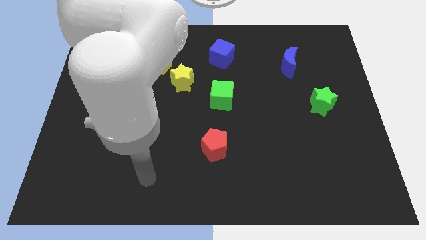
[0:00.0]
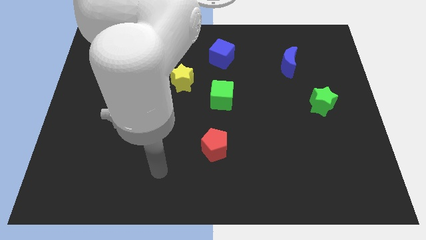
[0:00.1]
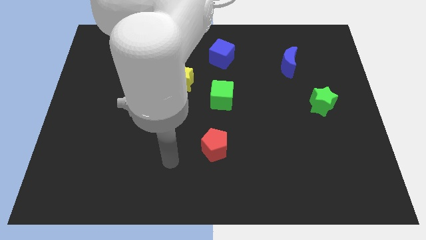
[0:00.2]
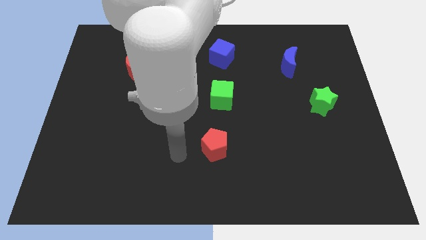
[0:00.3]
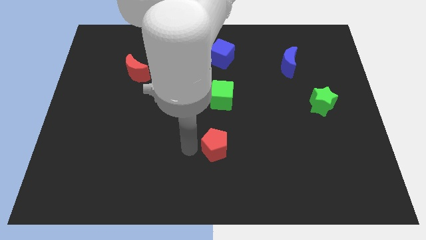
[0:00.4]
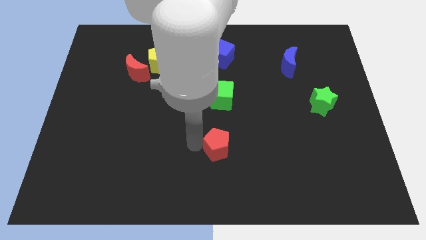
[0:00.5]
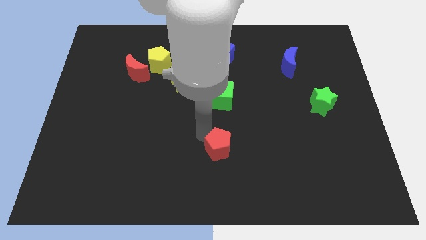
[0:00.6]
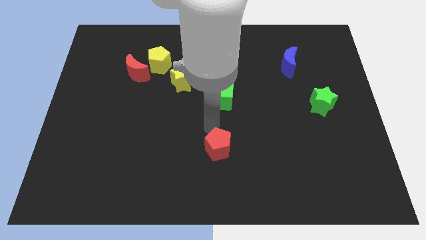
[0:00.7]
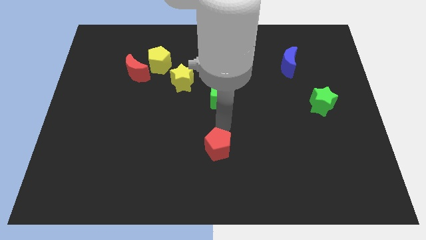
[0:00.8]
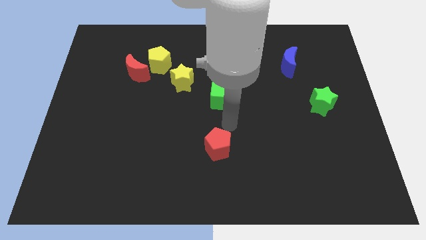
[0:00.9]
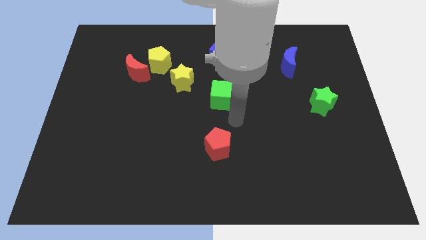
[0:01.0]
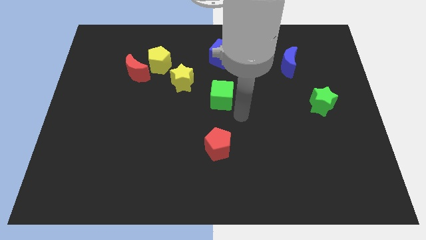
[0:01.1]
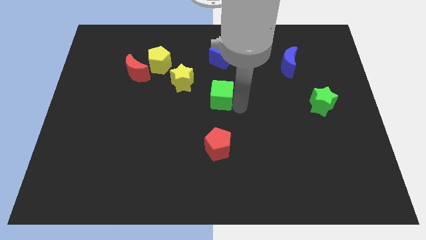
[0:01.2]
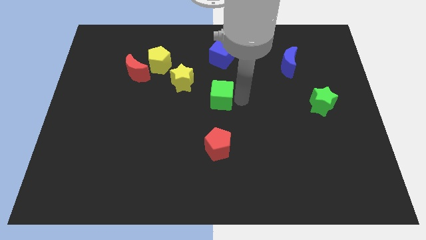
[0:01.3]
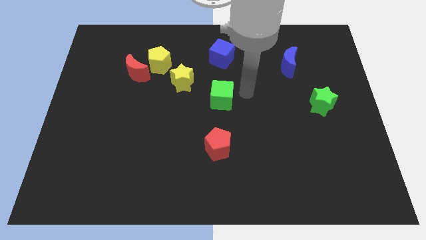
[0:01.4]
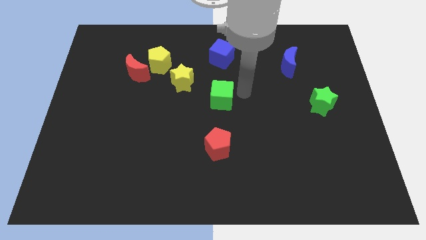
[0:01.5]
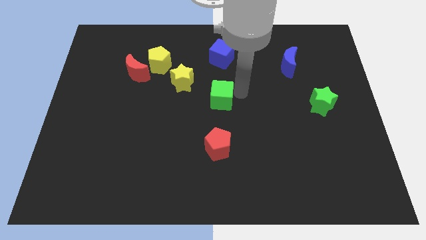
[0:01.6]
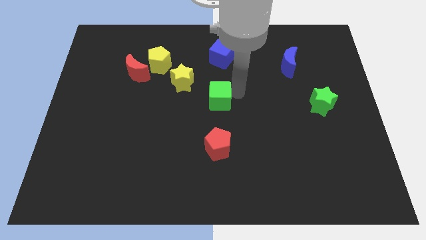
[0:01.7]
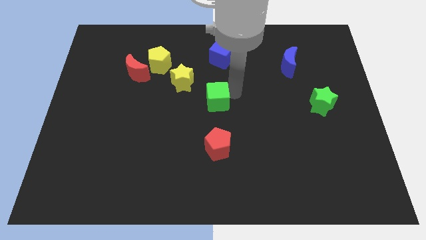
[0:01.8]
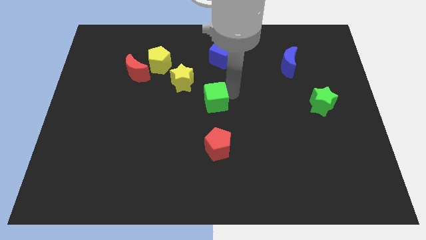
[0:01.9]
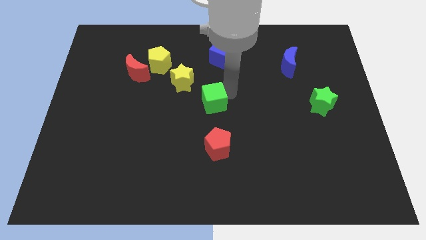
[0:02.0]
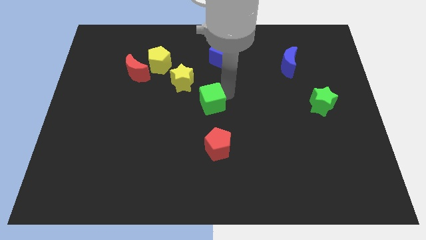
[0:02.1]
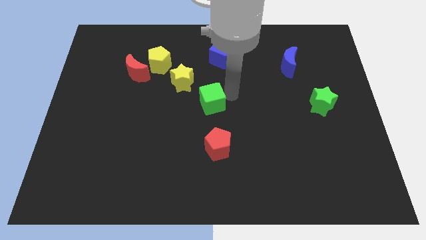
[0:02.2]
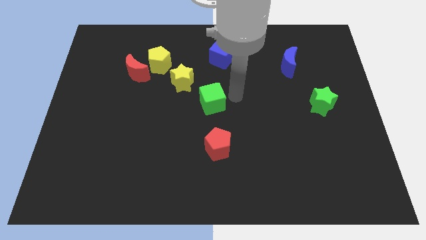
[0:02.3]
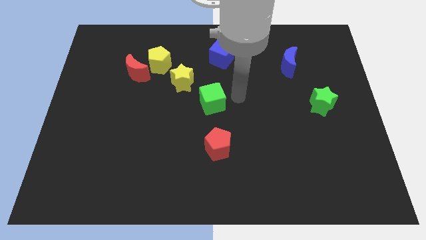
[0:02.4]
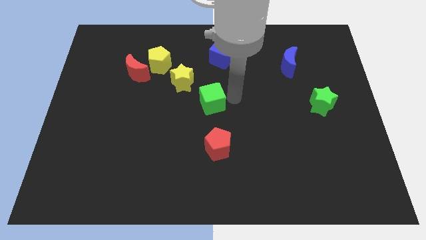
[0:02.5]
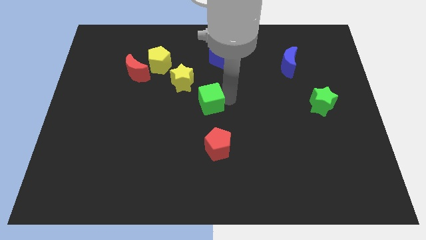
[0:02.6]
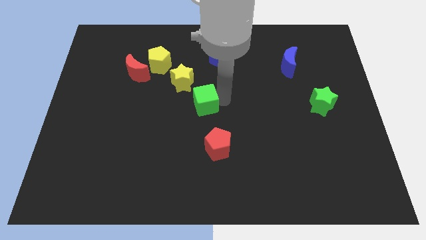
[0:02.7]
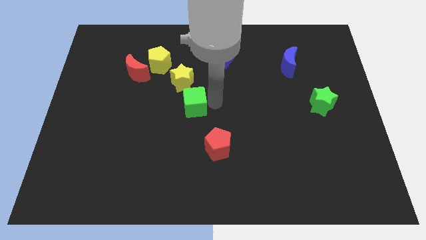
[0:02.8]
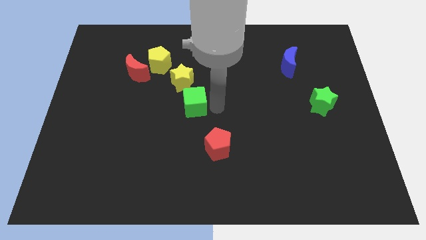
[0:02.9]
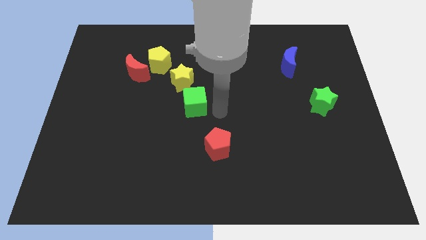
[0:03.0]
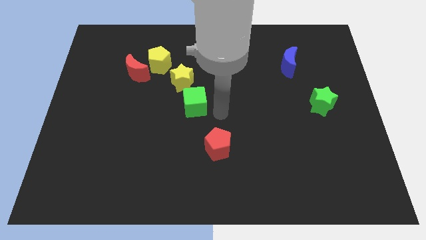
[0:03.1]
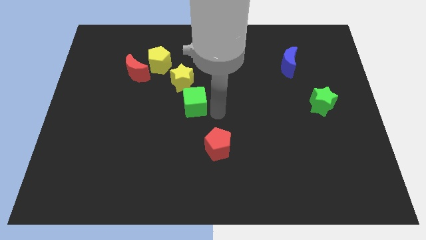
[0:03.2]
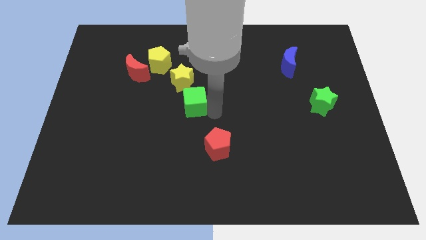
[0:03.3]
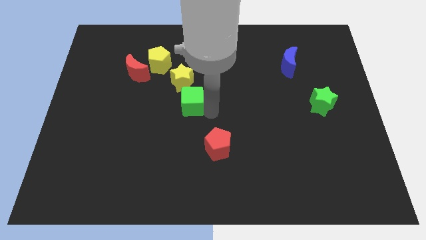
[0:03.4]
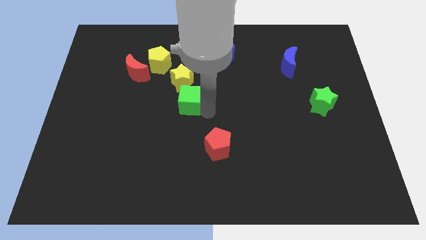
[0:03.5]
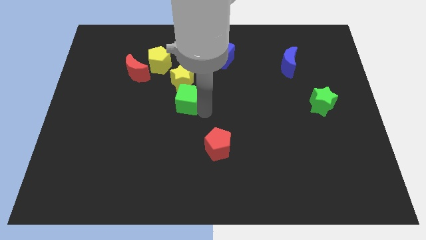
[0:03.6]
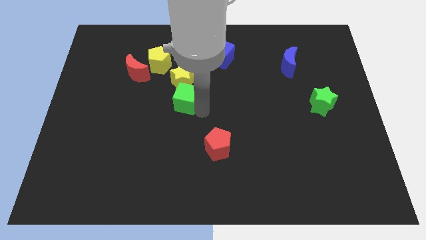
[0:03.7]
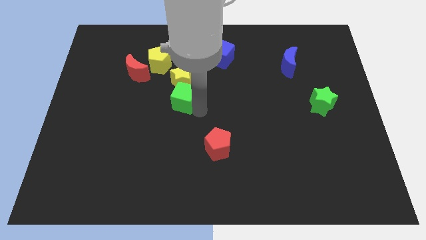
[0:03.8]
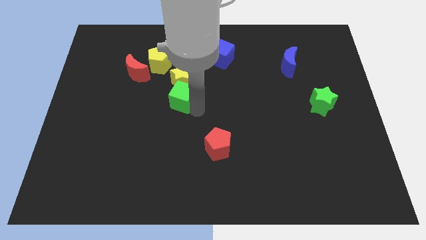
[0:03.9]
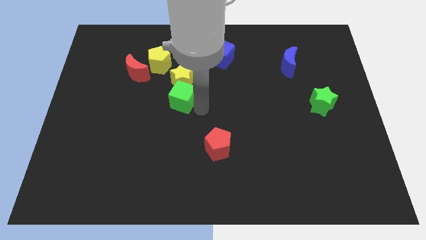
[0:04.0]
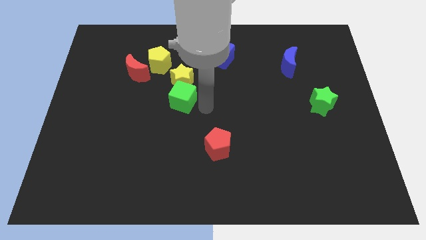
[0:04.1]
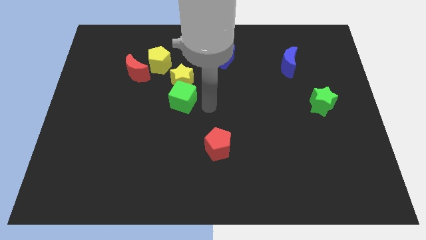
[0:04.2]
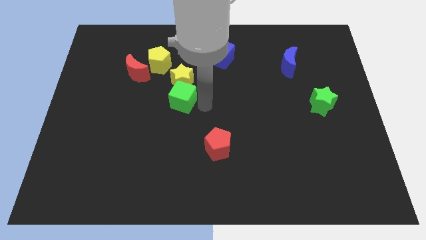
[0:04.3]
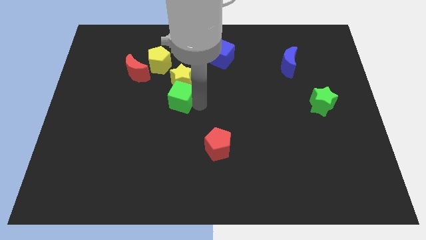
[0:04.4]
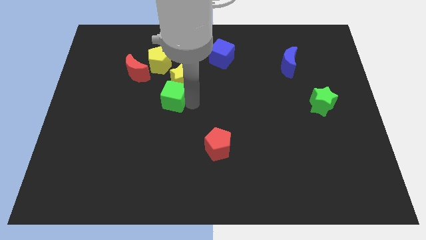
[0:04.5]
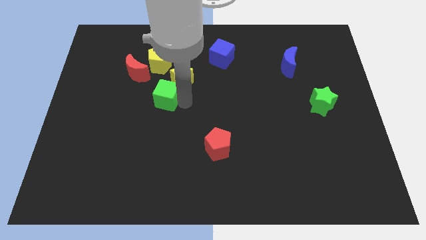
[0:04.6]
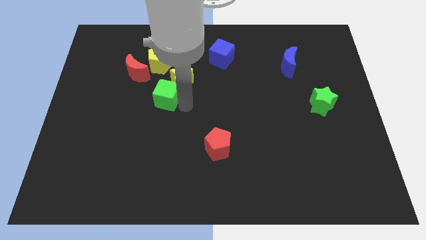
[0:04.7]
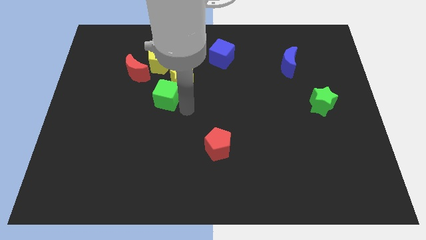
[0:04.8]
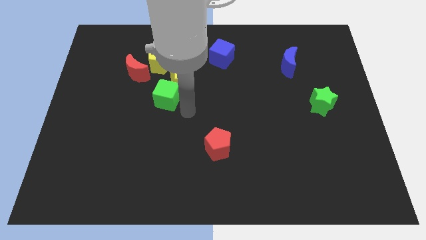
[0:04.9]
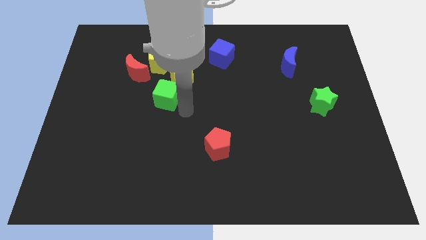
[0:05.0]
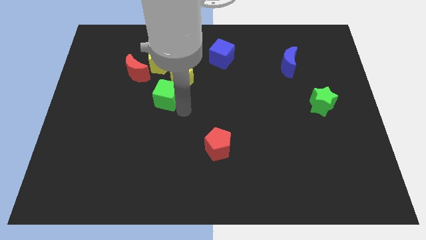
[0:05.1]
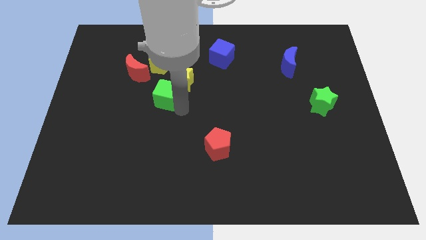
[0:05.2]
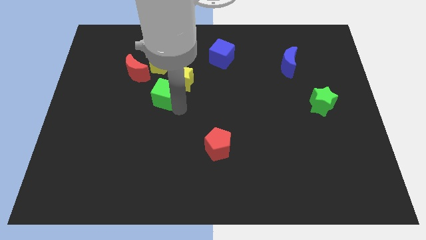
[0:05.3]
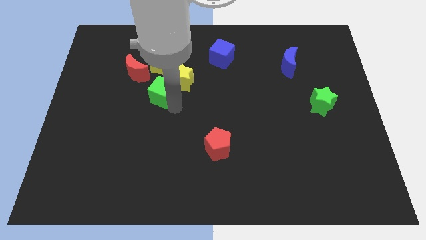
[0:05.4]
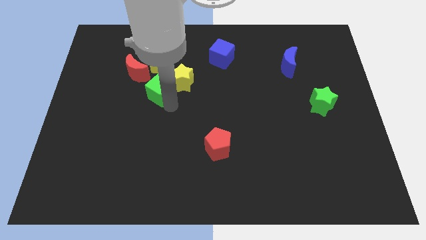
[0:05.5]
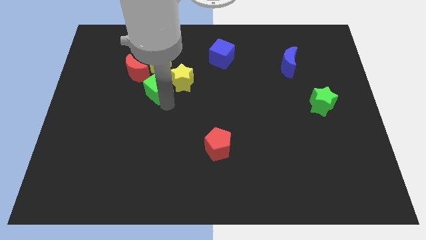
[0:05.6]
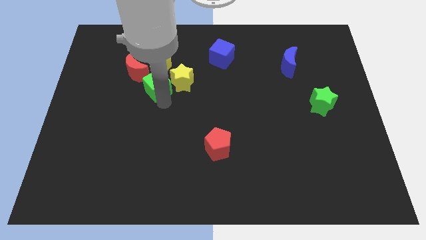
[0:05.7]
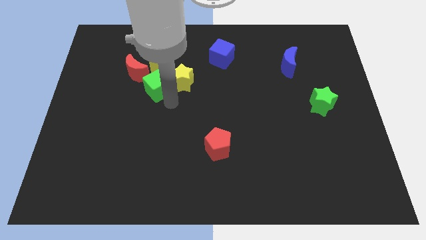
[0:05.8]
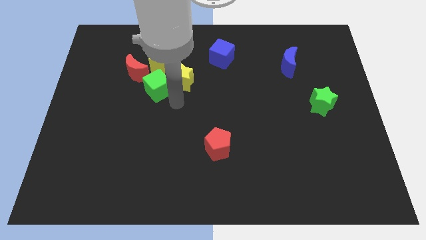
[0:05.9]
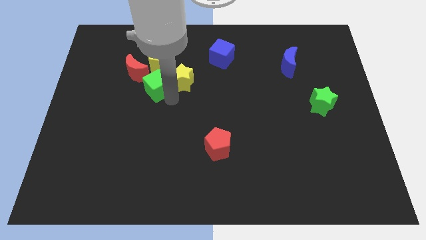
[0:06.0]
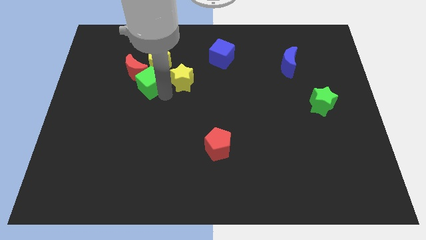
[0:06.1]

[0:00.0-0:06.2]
push the green cube to the red moon
